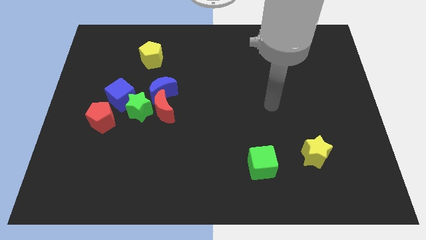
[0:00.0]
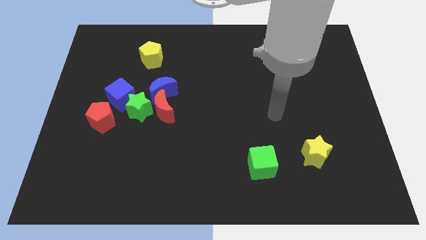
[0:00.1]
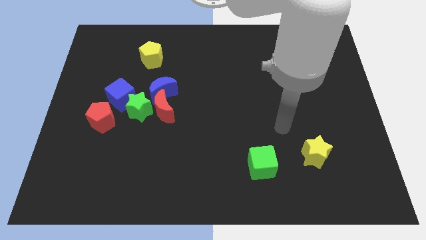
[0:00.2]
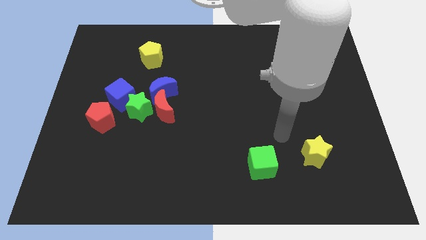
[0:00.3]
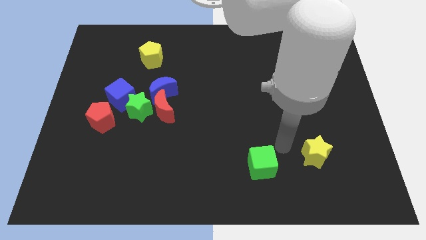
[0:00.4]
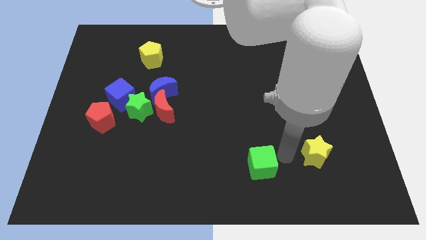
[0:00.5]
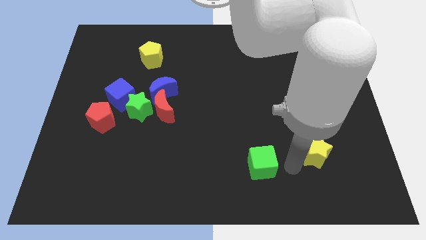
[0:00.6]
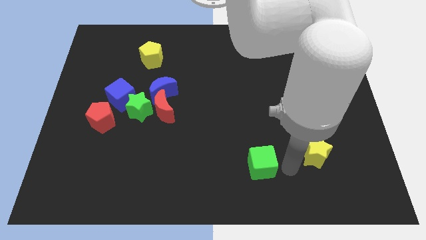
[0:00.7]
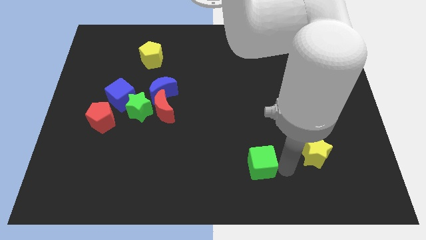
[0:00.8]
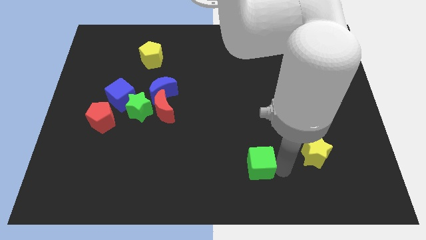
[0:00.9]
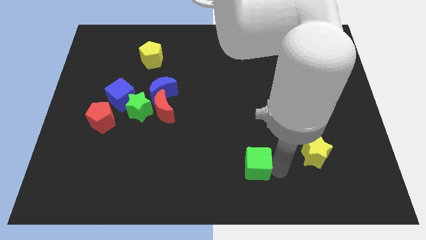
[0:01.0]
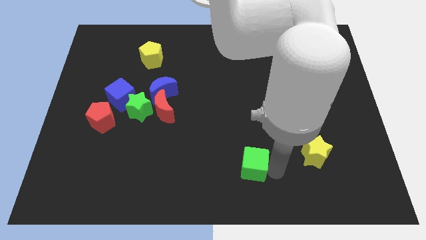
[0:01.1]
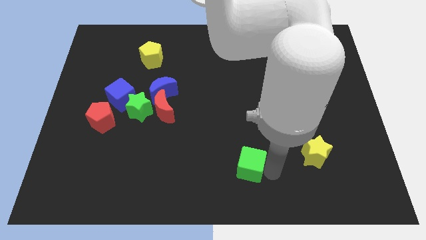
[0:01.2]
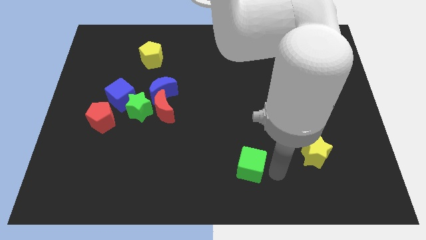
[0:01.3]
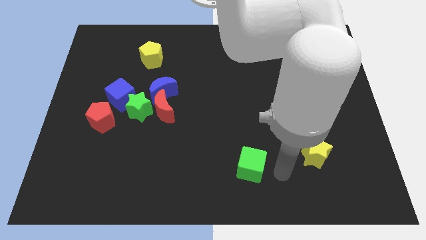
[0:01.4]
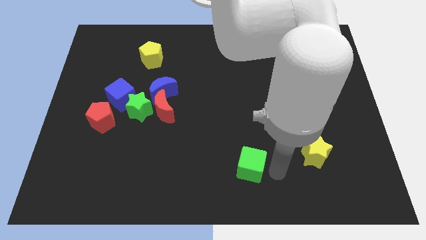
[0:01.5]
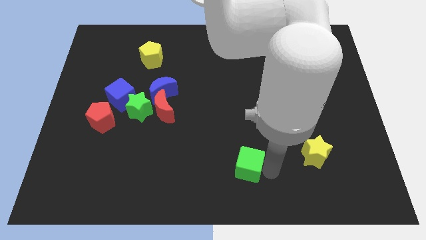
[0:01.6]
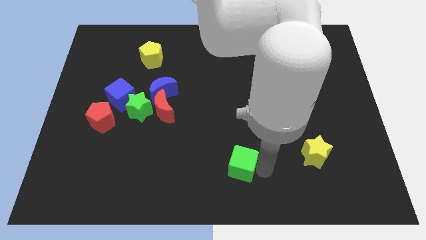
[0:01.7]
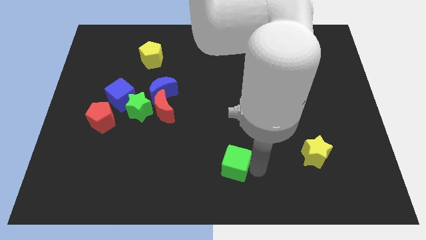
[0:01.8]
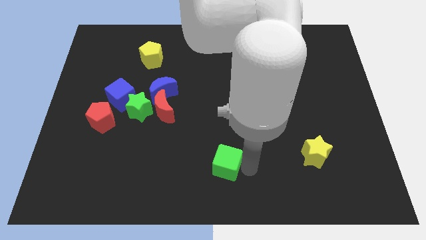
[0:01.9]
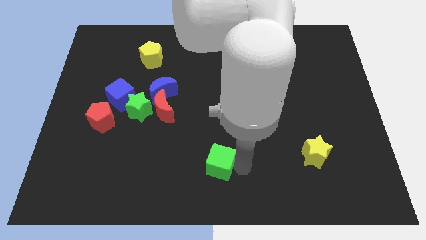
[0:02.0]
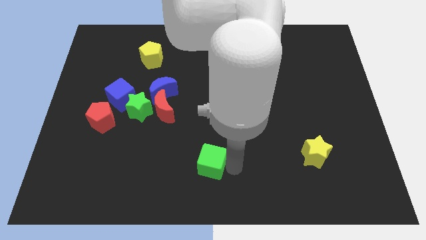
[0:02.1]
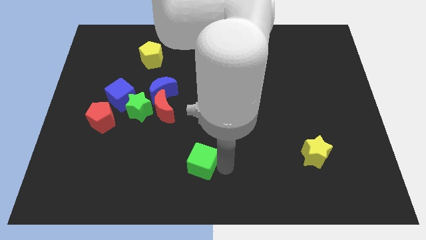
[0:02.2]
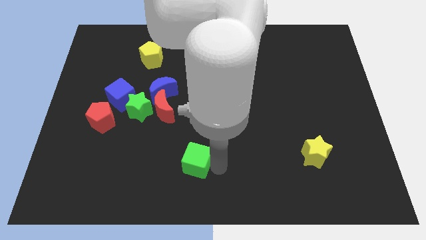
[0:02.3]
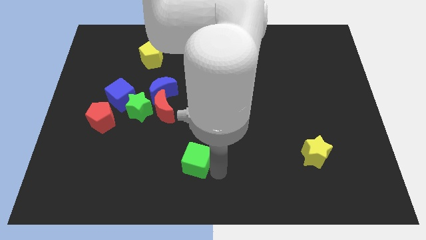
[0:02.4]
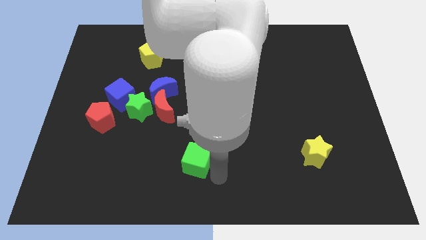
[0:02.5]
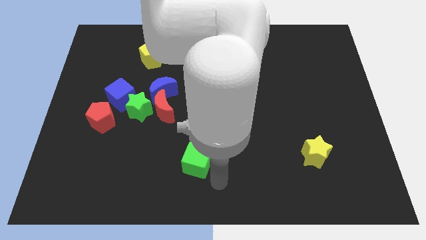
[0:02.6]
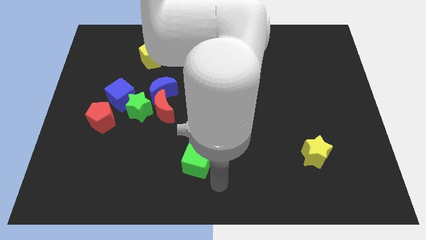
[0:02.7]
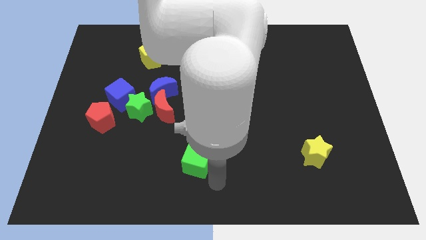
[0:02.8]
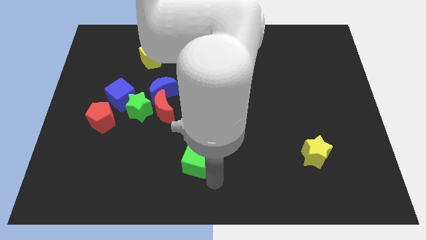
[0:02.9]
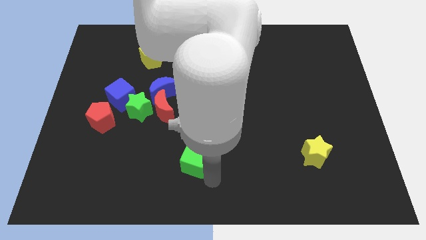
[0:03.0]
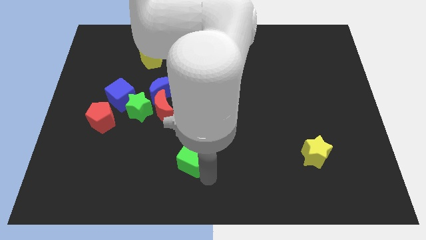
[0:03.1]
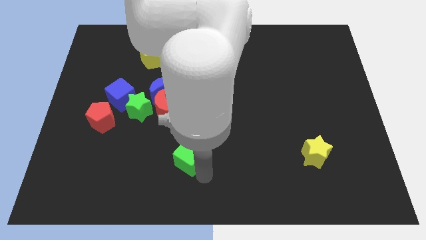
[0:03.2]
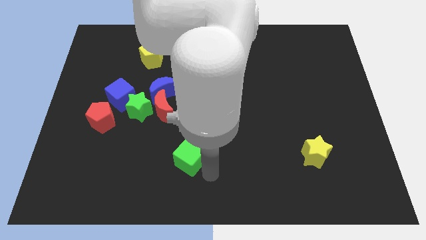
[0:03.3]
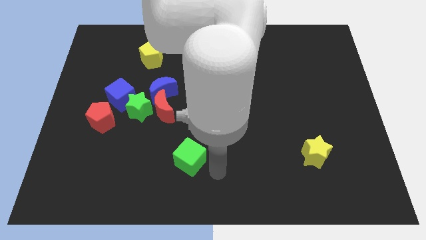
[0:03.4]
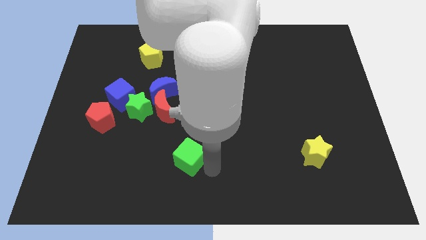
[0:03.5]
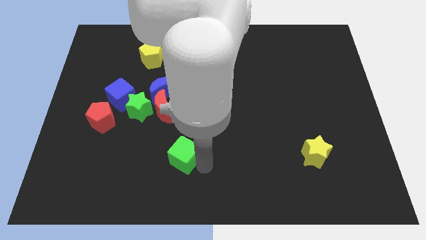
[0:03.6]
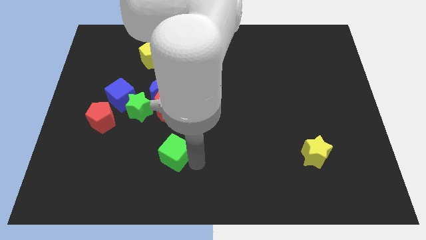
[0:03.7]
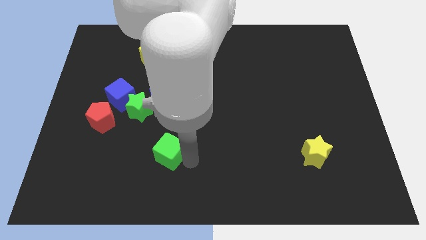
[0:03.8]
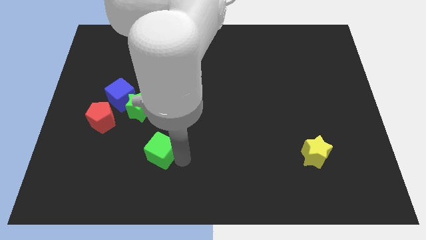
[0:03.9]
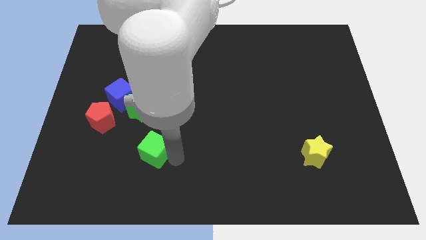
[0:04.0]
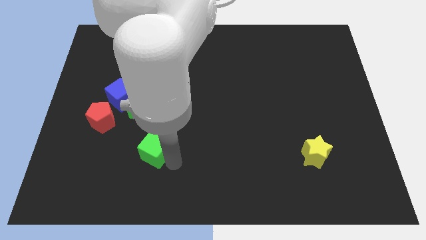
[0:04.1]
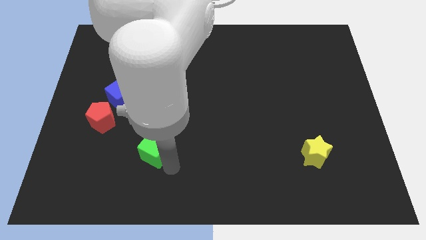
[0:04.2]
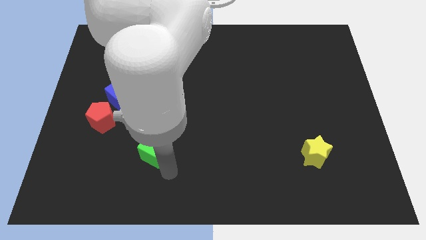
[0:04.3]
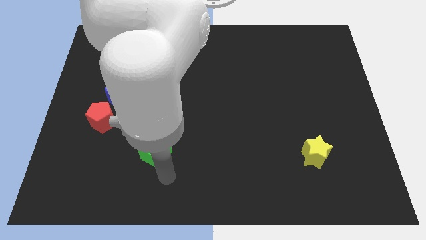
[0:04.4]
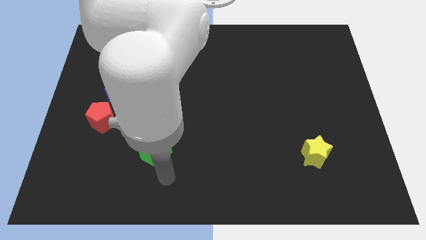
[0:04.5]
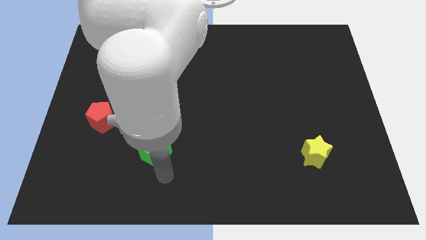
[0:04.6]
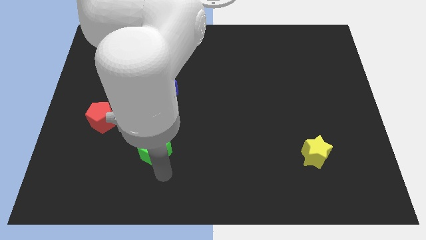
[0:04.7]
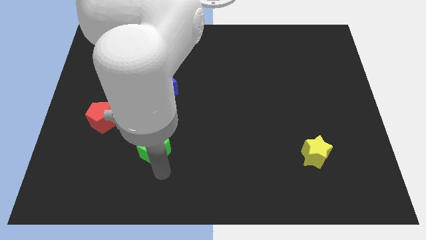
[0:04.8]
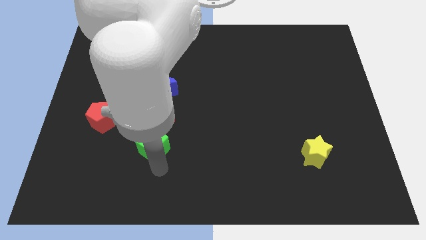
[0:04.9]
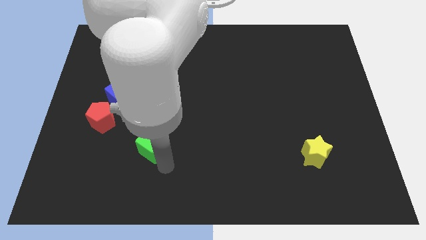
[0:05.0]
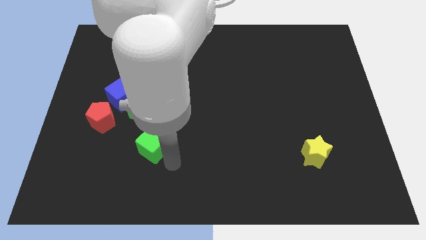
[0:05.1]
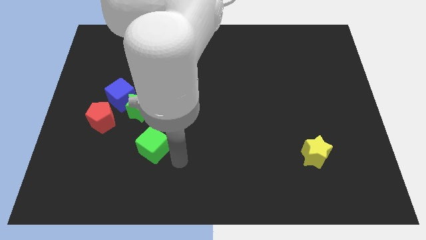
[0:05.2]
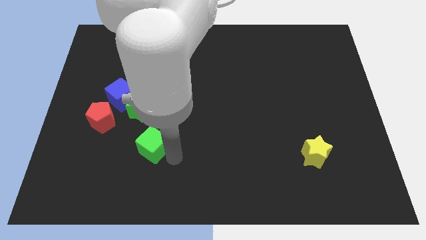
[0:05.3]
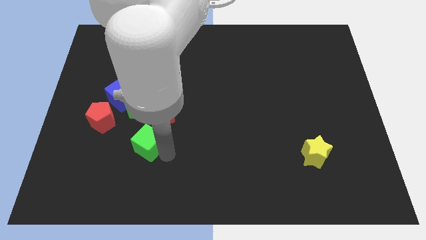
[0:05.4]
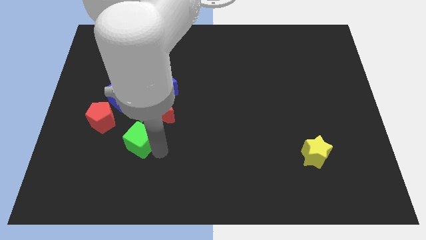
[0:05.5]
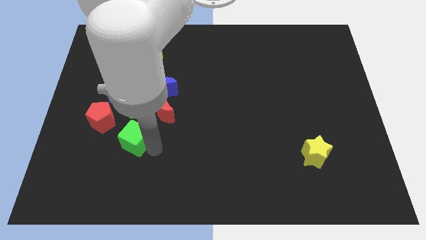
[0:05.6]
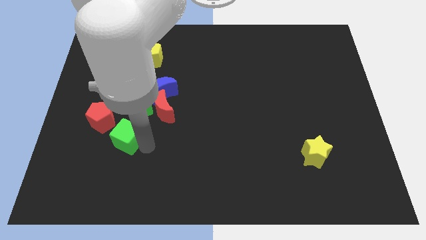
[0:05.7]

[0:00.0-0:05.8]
move the green cube to the bottom left of the green star

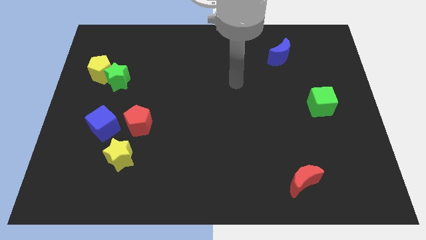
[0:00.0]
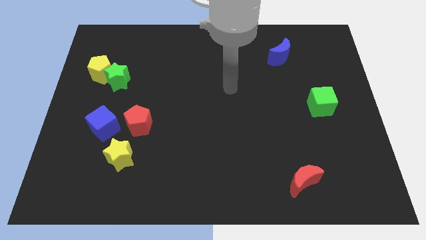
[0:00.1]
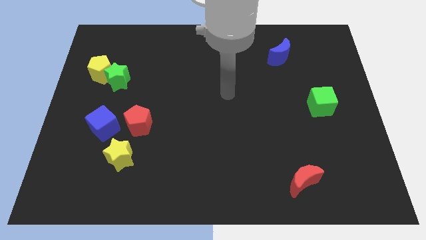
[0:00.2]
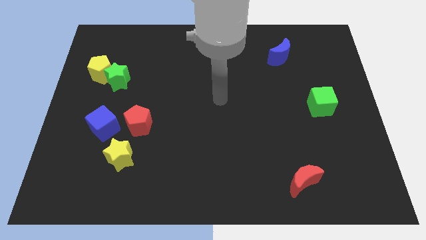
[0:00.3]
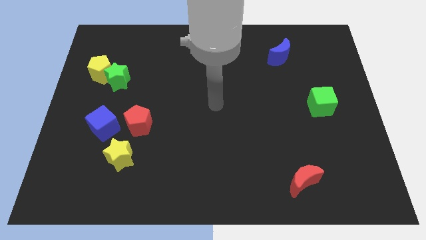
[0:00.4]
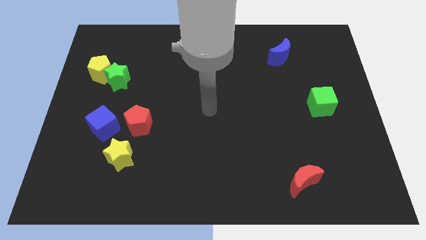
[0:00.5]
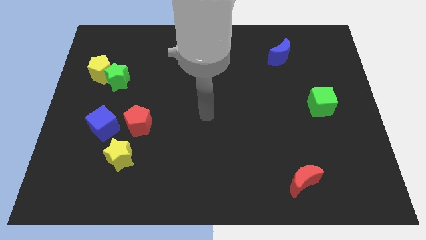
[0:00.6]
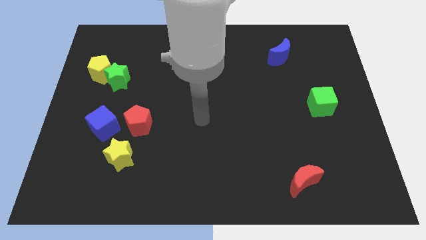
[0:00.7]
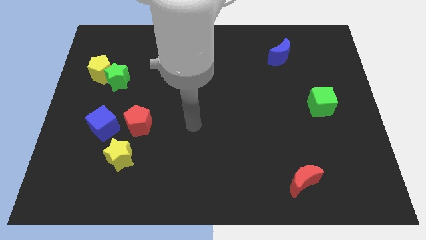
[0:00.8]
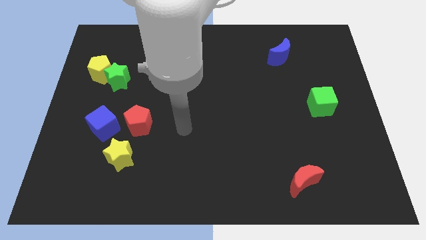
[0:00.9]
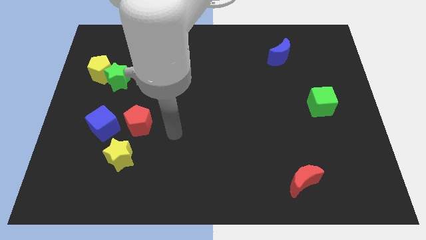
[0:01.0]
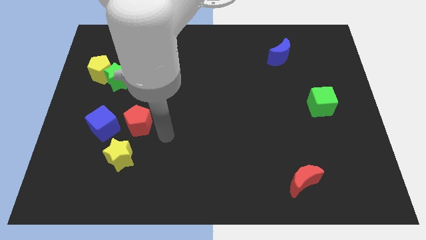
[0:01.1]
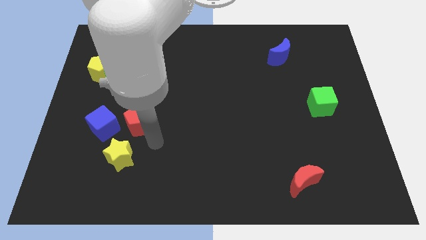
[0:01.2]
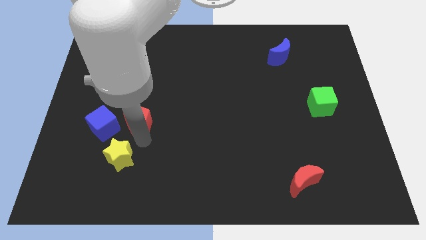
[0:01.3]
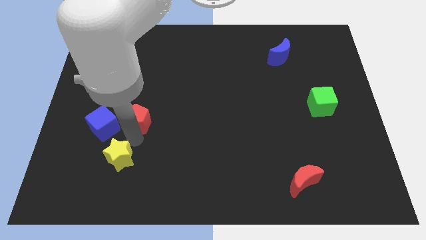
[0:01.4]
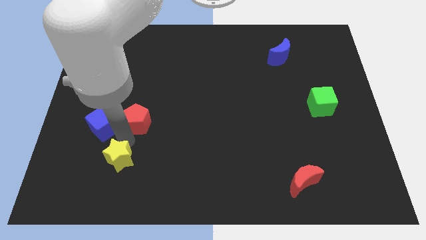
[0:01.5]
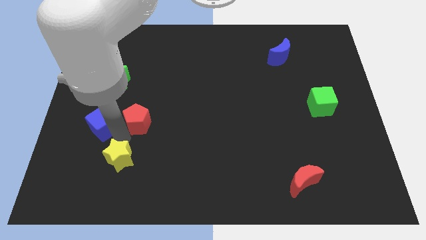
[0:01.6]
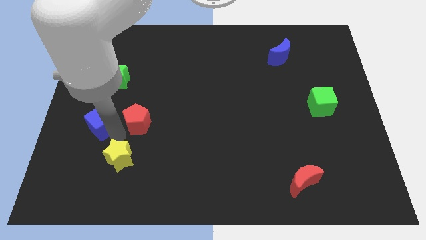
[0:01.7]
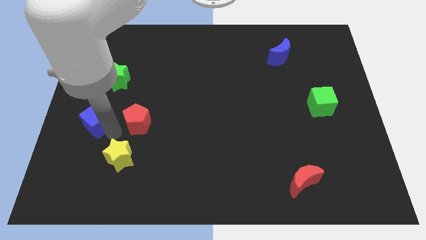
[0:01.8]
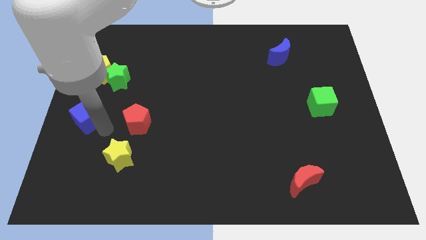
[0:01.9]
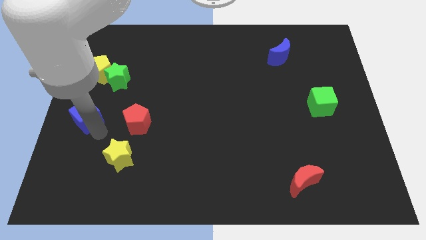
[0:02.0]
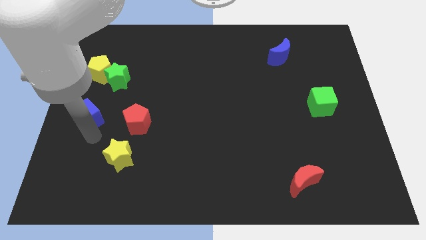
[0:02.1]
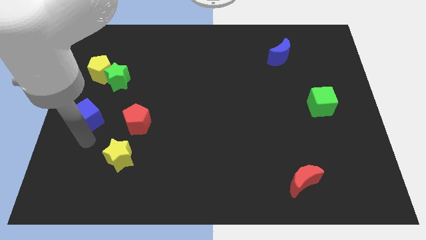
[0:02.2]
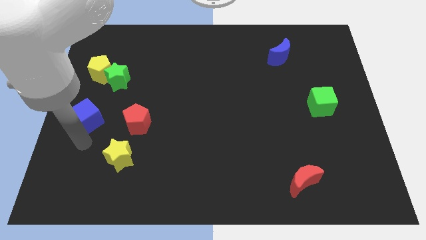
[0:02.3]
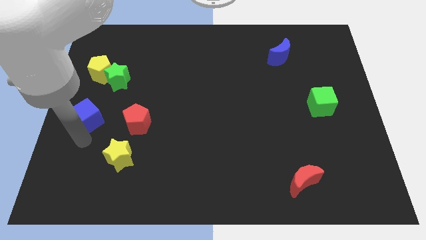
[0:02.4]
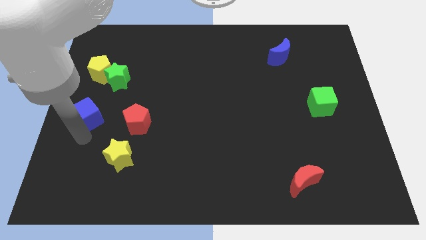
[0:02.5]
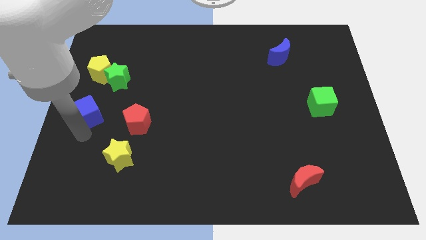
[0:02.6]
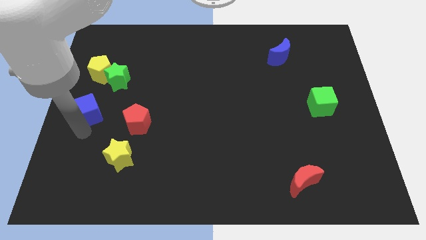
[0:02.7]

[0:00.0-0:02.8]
push the blue cube to the bottom left side of the green star
